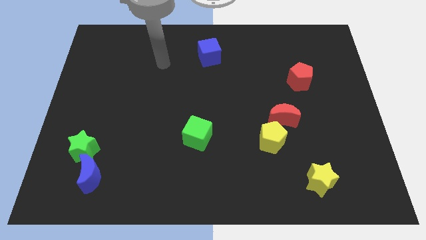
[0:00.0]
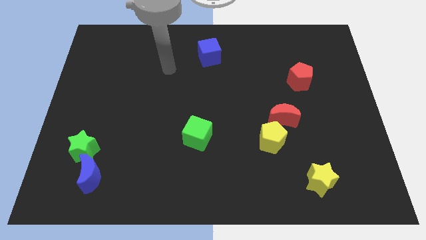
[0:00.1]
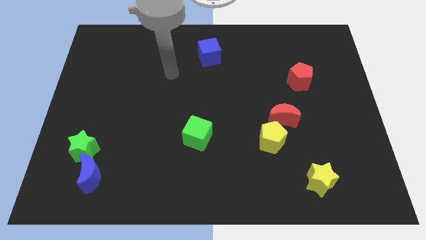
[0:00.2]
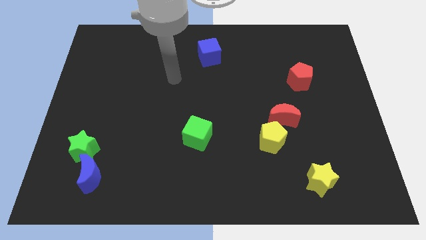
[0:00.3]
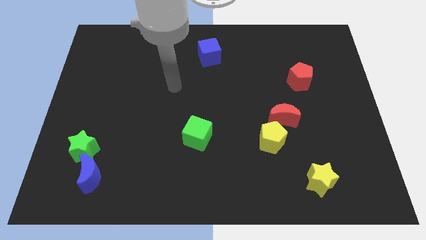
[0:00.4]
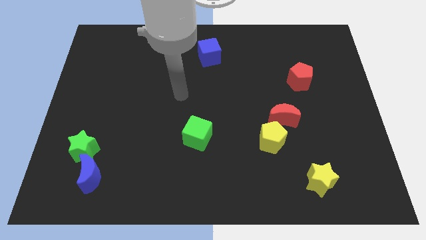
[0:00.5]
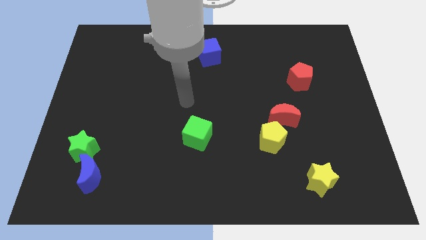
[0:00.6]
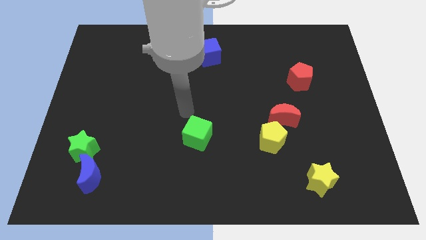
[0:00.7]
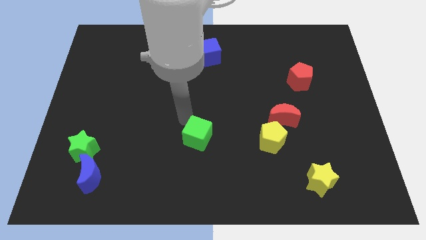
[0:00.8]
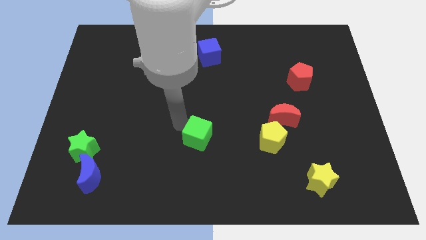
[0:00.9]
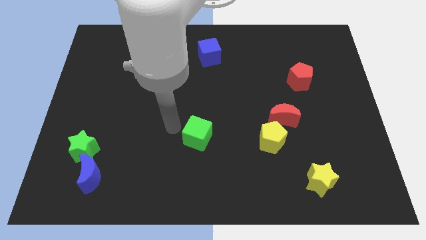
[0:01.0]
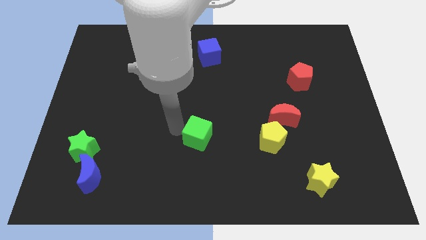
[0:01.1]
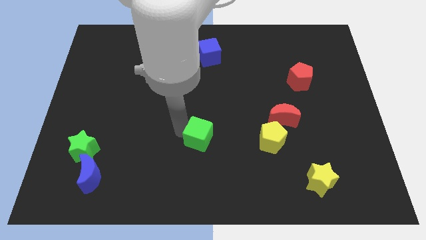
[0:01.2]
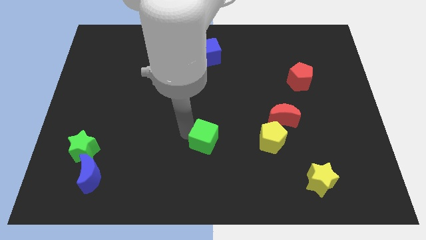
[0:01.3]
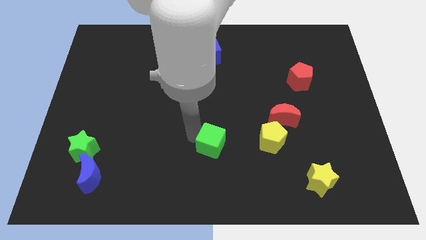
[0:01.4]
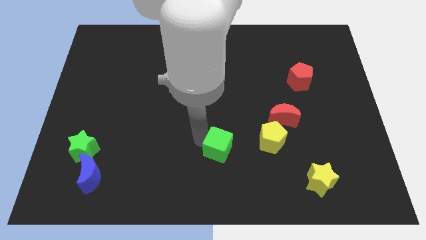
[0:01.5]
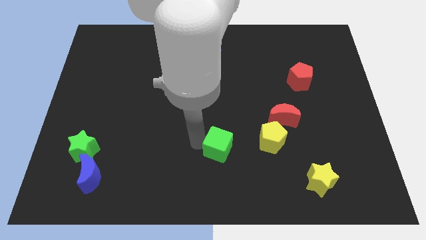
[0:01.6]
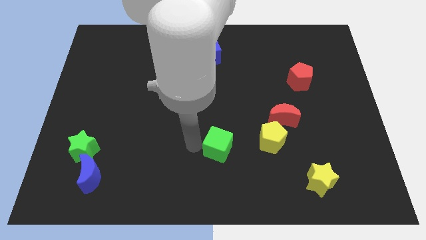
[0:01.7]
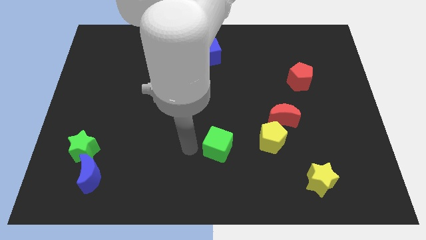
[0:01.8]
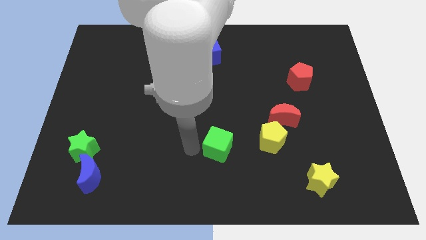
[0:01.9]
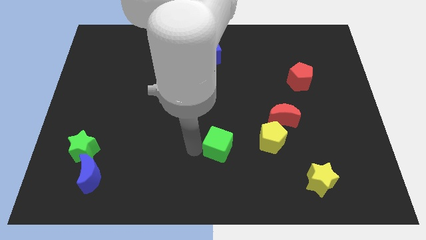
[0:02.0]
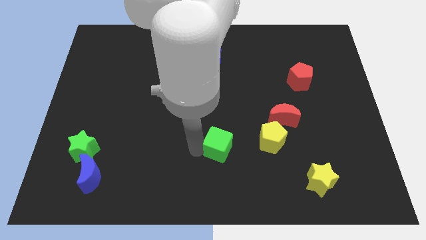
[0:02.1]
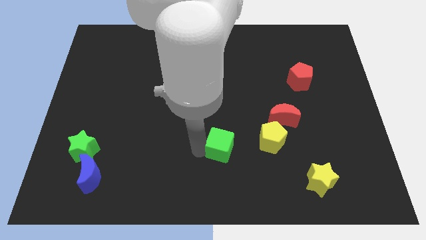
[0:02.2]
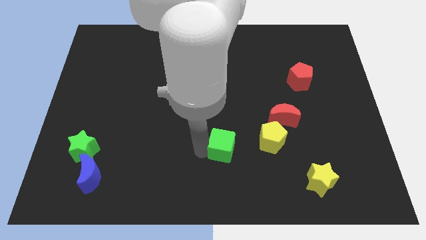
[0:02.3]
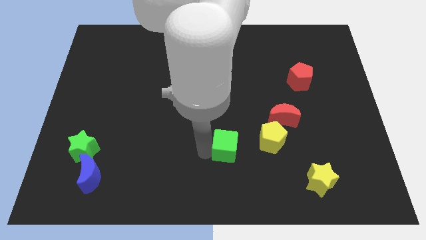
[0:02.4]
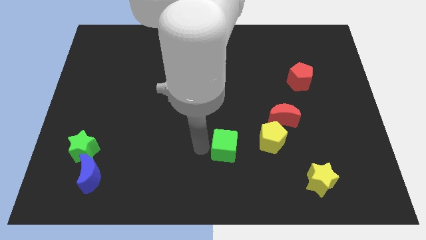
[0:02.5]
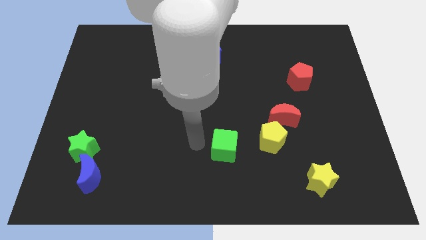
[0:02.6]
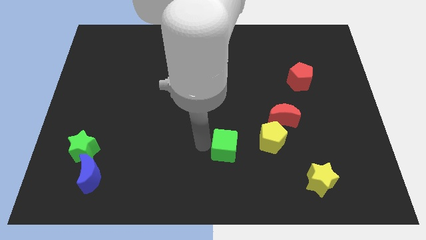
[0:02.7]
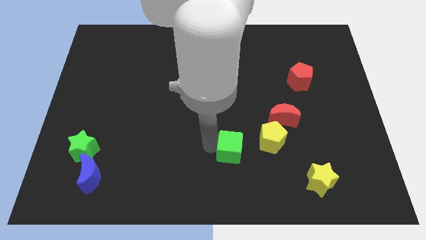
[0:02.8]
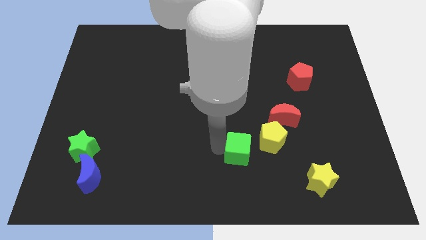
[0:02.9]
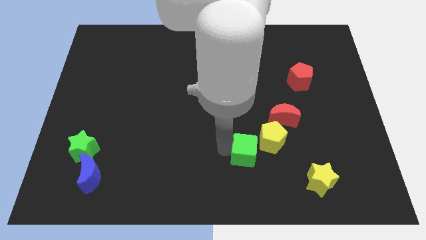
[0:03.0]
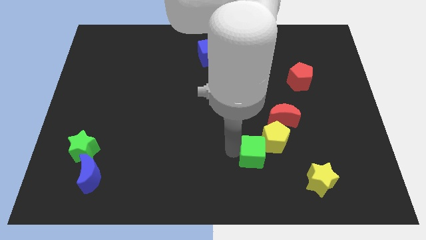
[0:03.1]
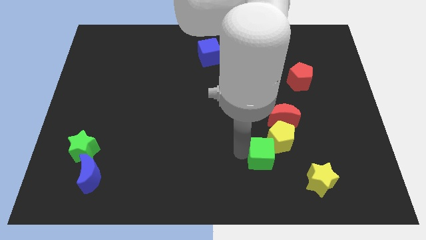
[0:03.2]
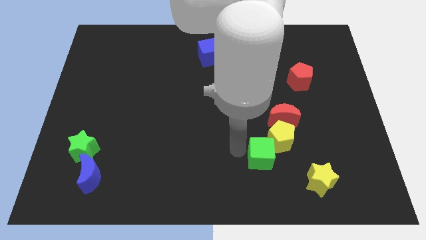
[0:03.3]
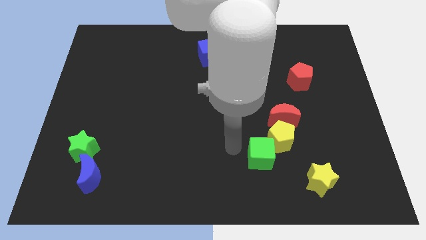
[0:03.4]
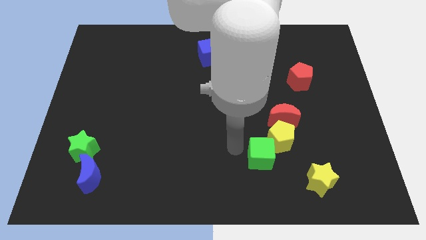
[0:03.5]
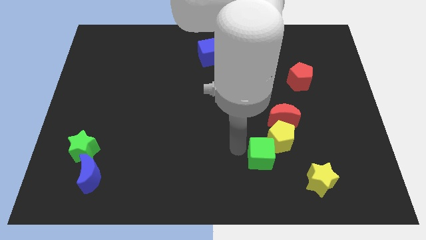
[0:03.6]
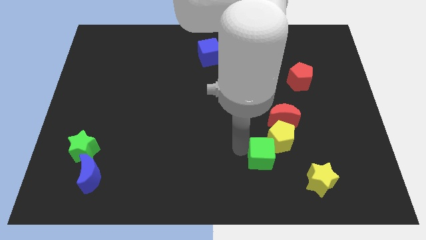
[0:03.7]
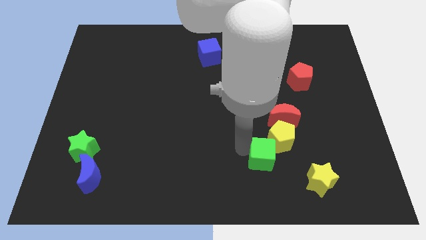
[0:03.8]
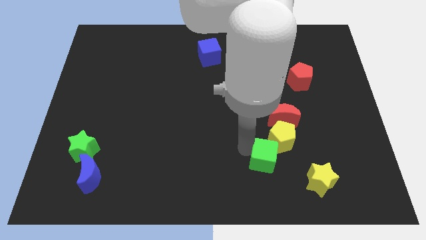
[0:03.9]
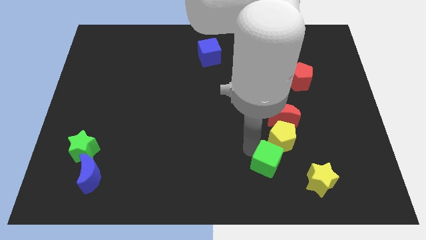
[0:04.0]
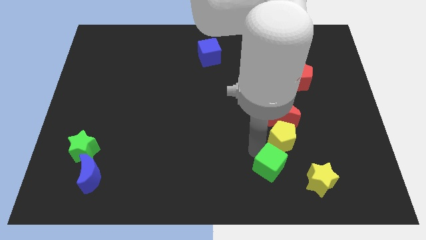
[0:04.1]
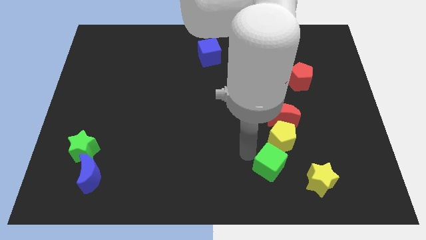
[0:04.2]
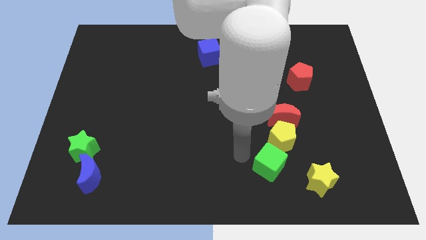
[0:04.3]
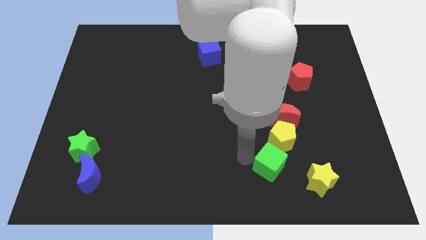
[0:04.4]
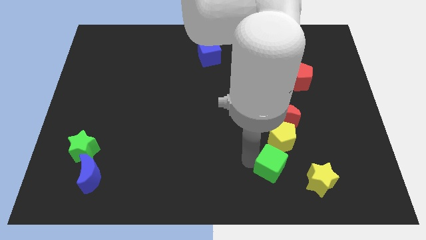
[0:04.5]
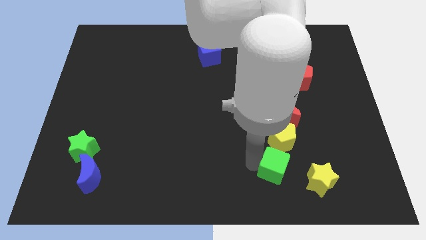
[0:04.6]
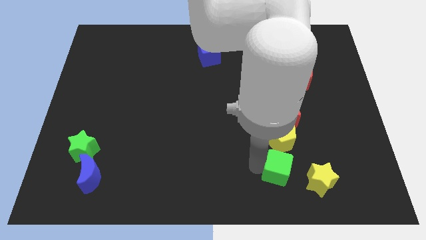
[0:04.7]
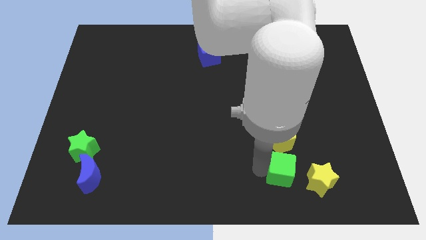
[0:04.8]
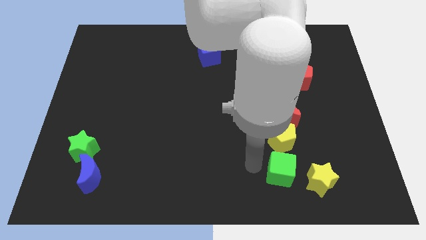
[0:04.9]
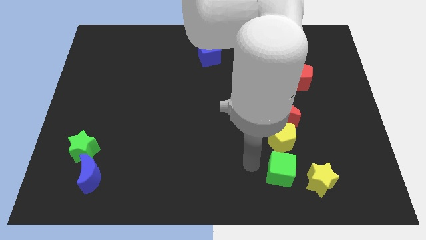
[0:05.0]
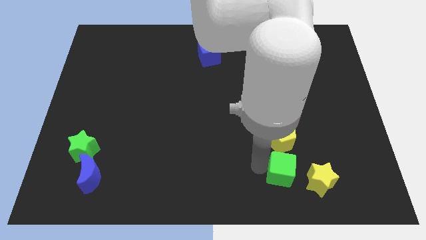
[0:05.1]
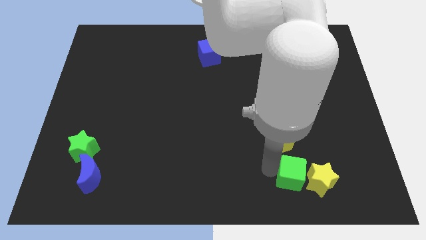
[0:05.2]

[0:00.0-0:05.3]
move the green cube towards the yellow star

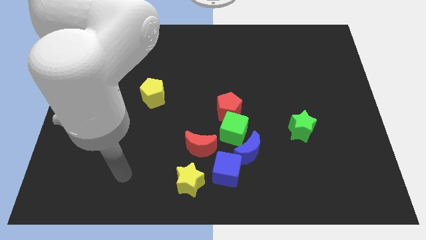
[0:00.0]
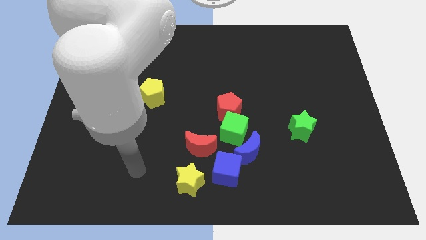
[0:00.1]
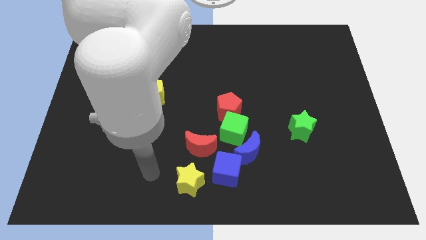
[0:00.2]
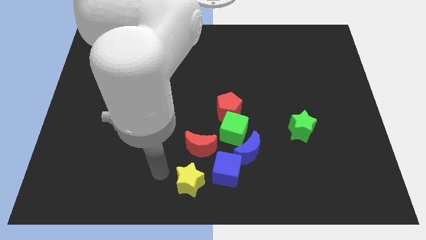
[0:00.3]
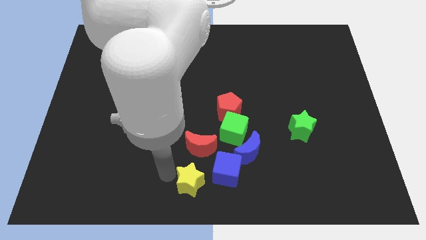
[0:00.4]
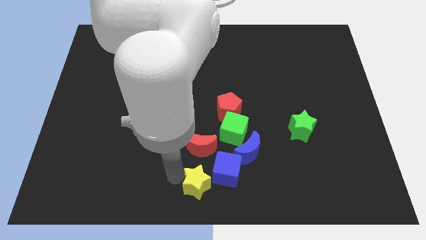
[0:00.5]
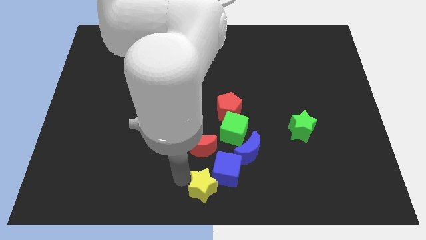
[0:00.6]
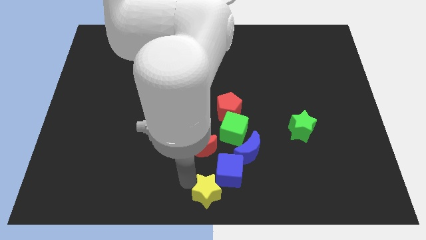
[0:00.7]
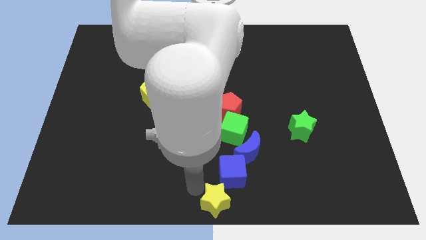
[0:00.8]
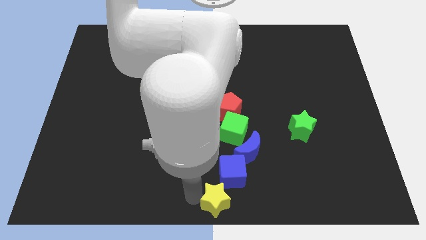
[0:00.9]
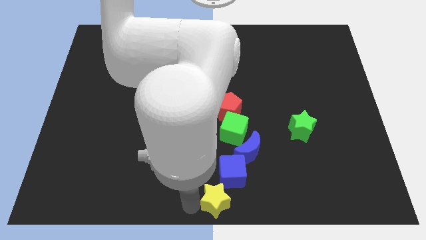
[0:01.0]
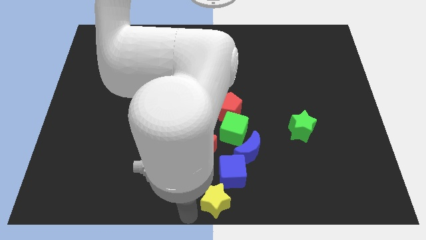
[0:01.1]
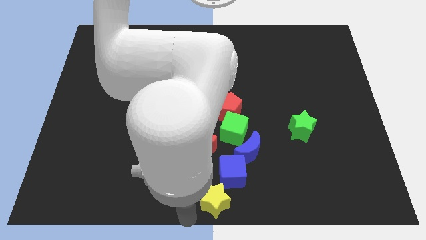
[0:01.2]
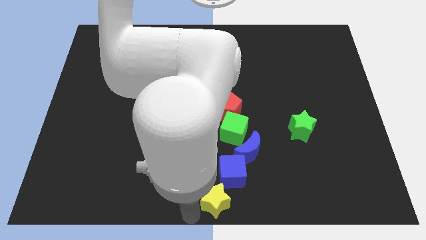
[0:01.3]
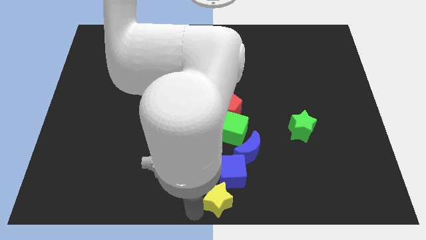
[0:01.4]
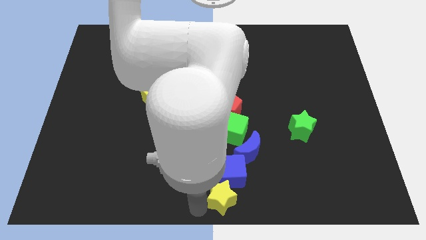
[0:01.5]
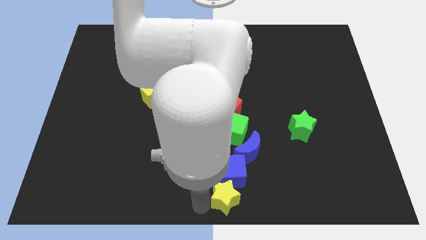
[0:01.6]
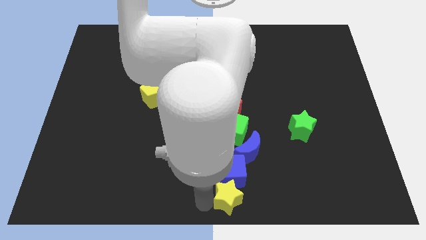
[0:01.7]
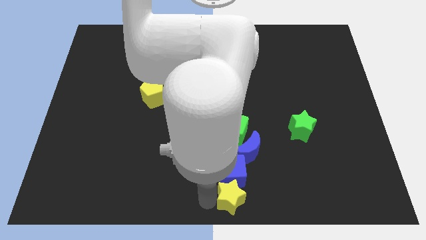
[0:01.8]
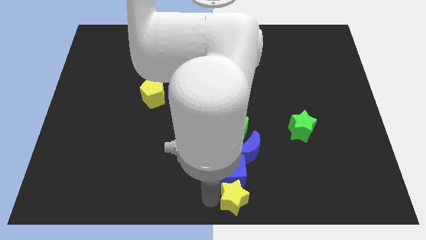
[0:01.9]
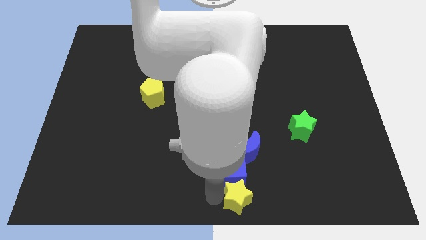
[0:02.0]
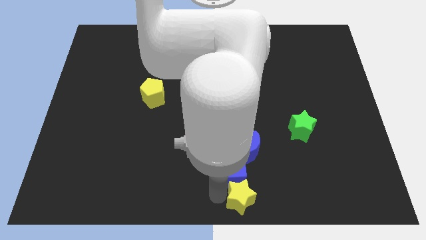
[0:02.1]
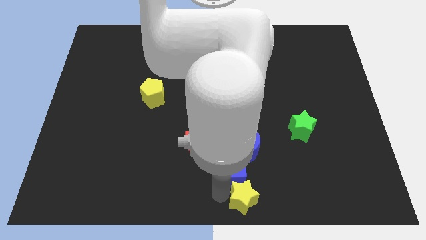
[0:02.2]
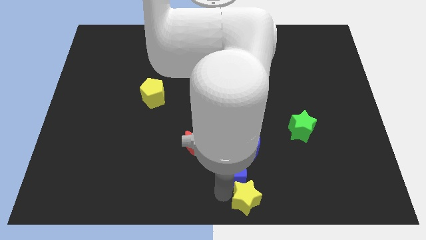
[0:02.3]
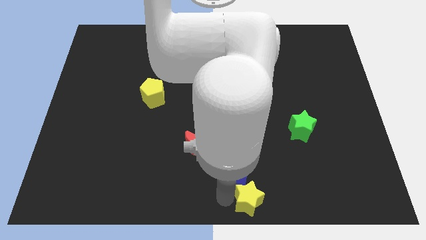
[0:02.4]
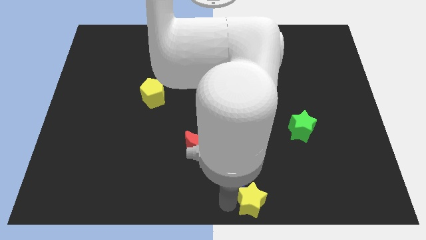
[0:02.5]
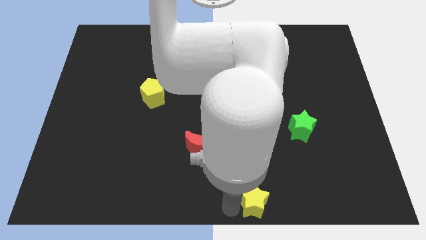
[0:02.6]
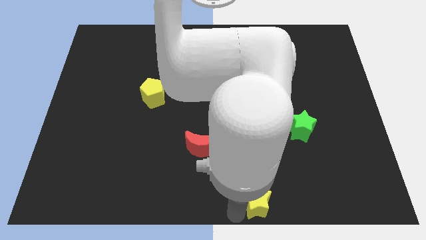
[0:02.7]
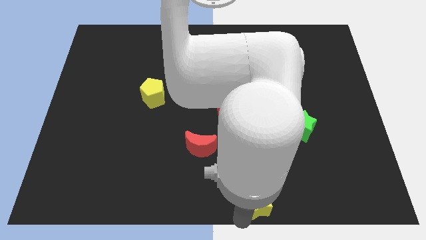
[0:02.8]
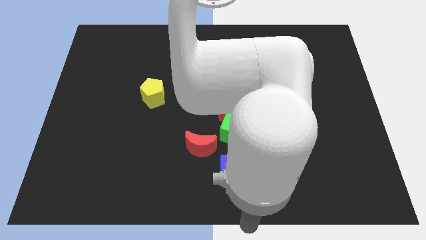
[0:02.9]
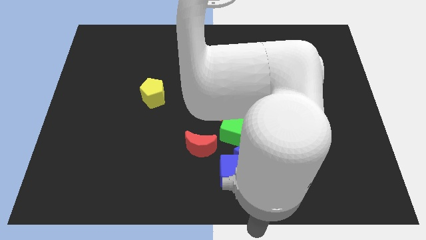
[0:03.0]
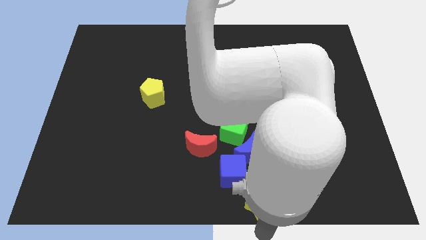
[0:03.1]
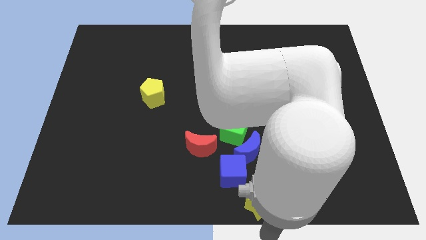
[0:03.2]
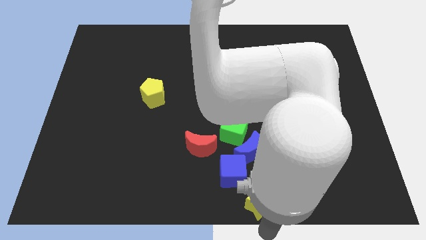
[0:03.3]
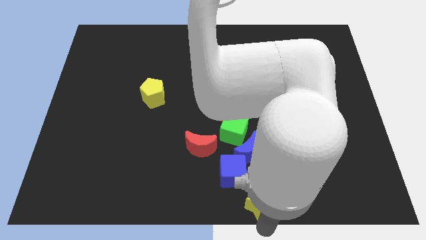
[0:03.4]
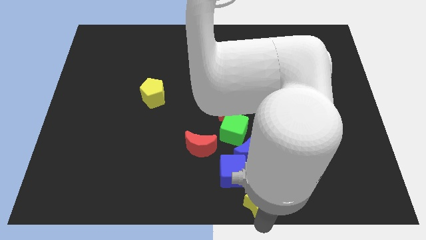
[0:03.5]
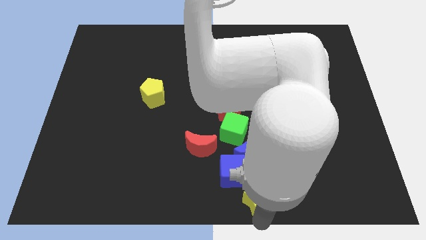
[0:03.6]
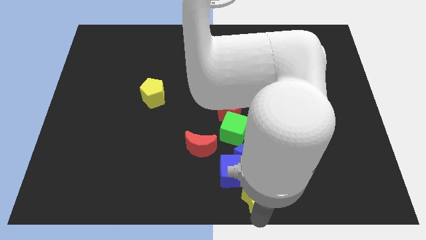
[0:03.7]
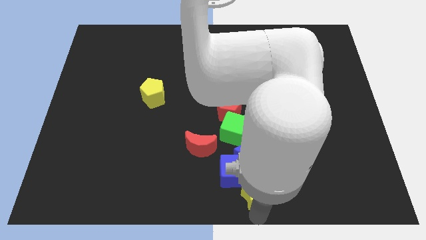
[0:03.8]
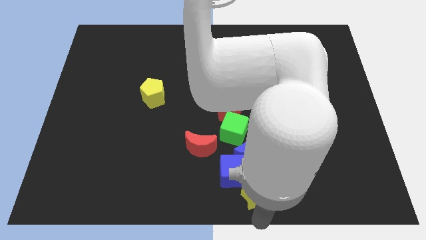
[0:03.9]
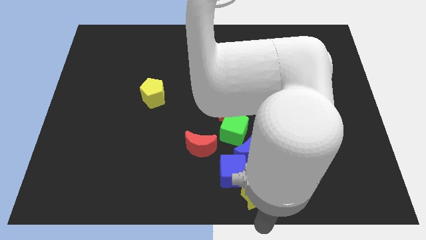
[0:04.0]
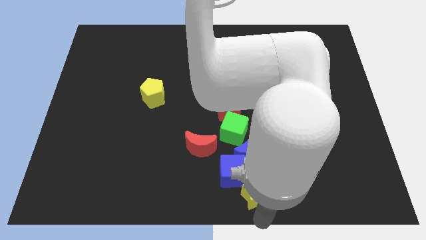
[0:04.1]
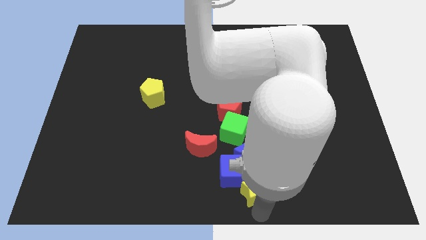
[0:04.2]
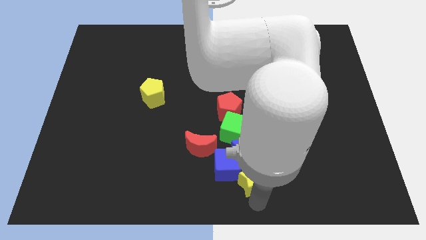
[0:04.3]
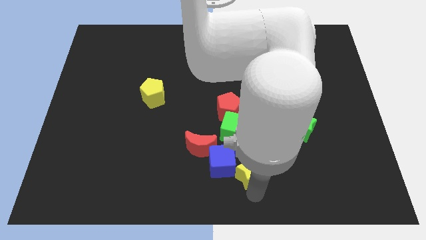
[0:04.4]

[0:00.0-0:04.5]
move the yellow star close to the blue moon
